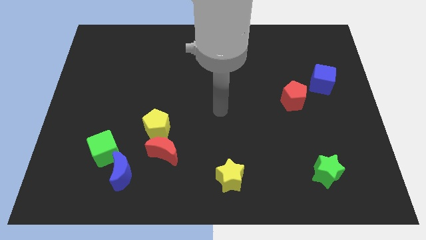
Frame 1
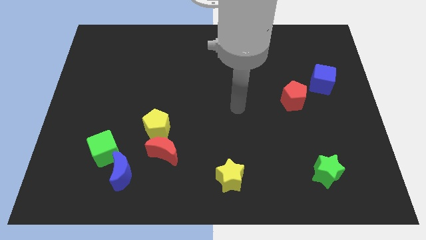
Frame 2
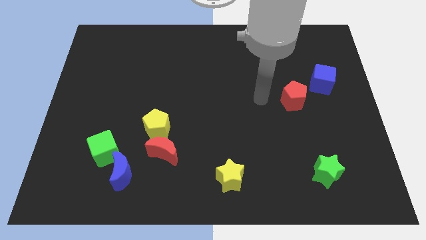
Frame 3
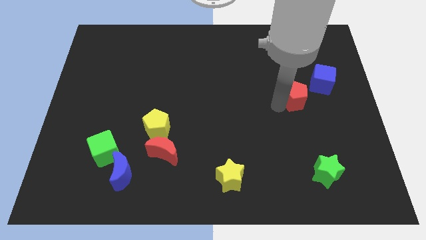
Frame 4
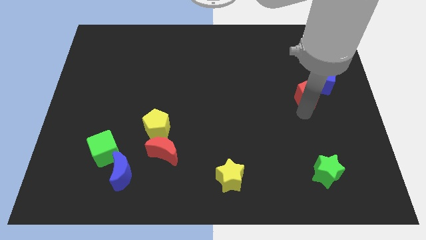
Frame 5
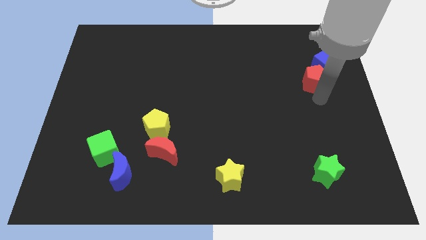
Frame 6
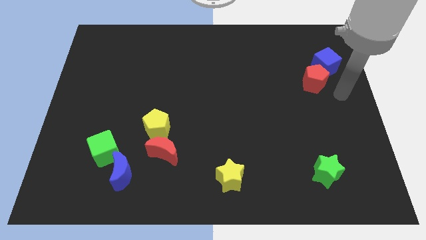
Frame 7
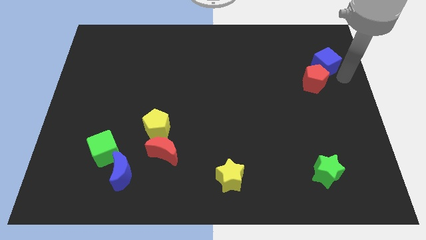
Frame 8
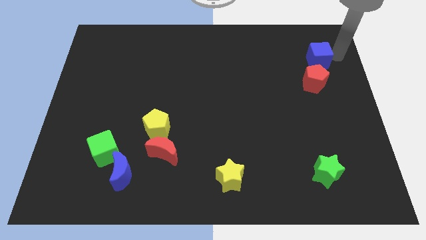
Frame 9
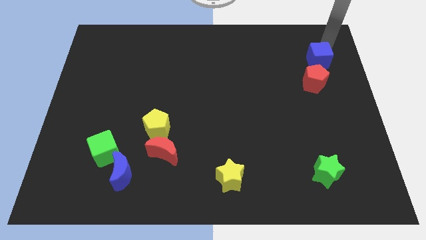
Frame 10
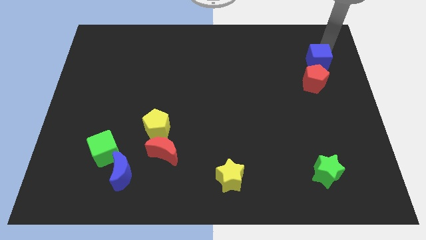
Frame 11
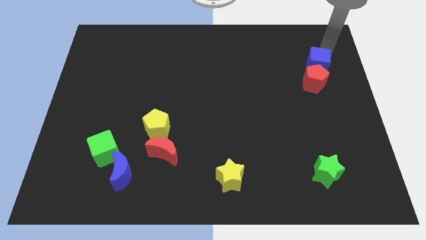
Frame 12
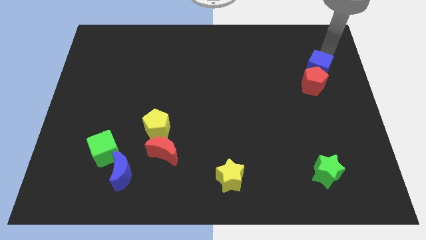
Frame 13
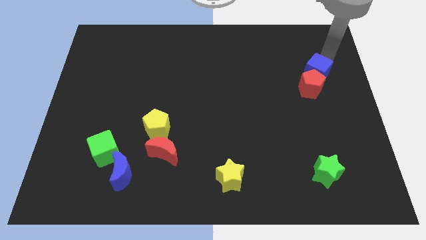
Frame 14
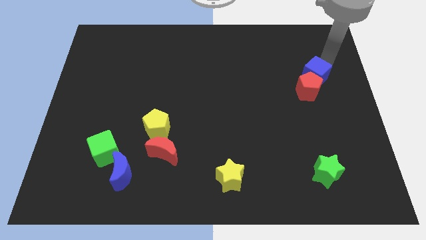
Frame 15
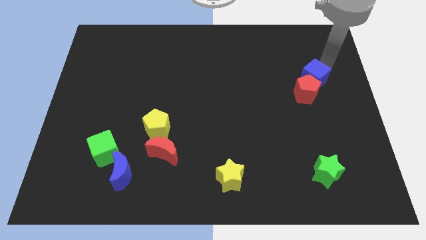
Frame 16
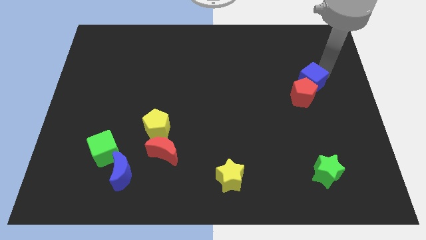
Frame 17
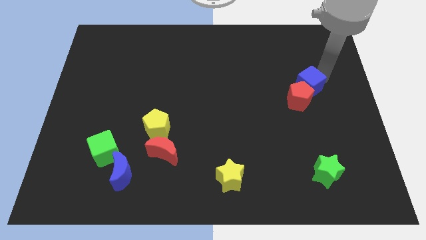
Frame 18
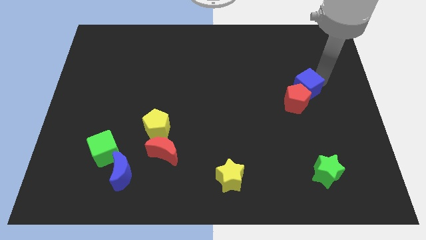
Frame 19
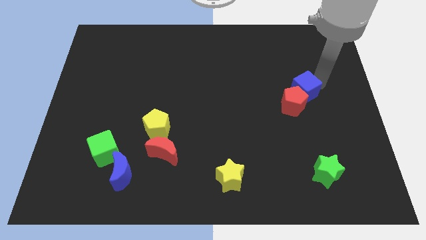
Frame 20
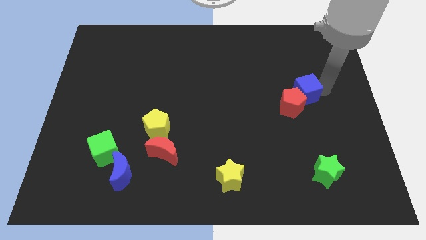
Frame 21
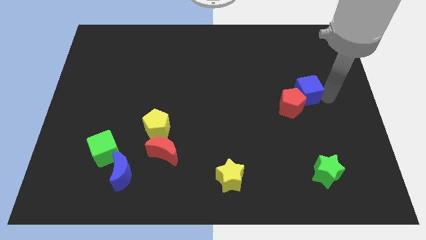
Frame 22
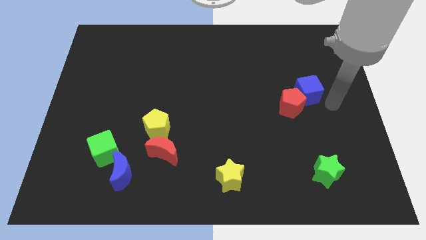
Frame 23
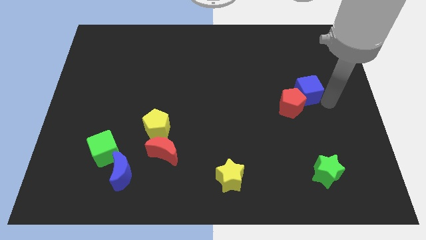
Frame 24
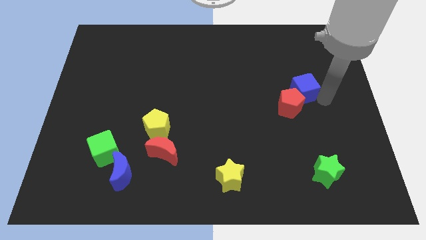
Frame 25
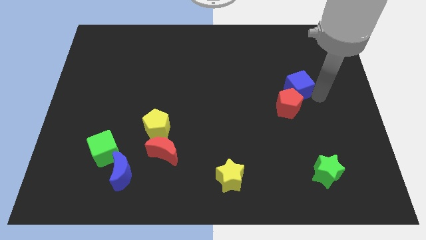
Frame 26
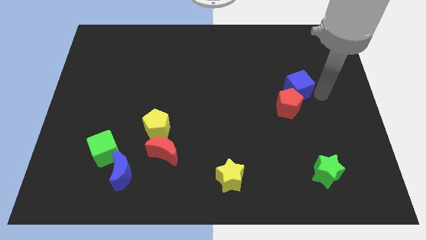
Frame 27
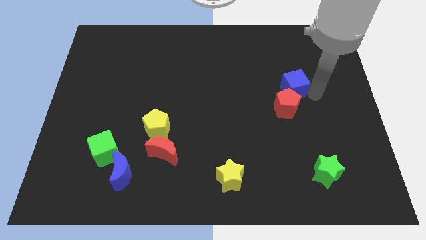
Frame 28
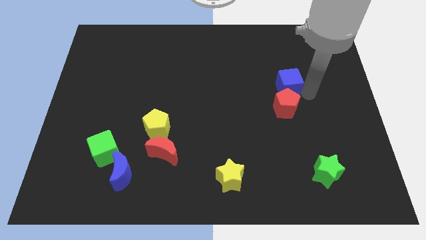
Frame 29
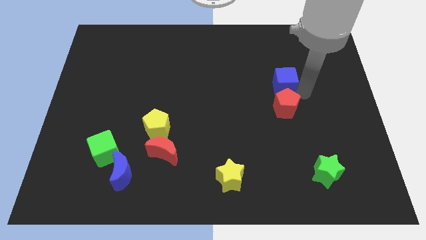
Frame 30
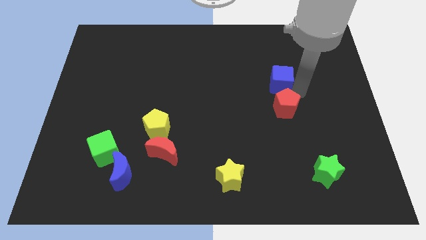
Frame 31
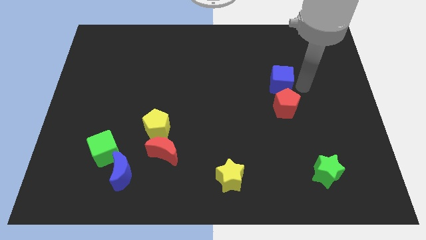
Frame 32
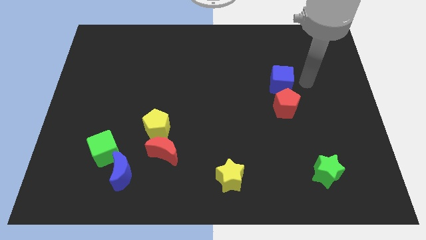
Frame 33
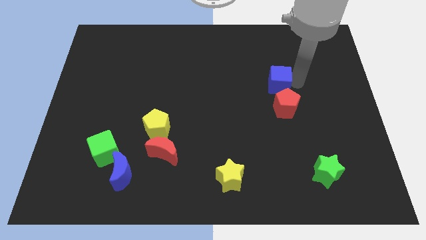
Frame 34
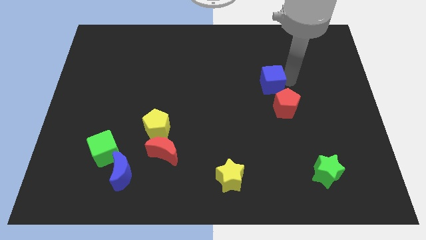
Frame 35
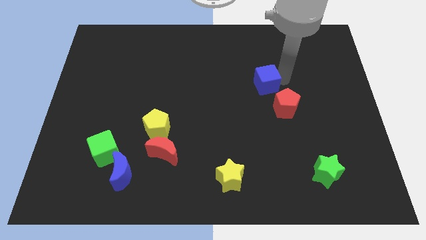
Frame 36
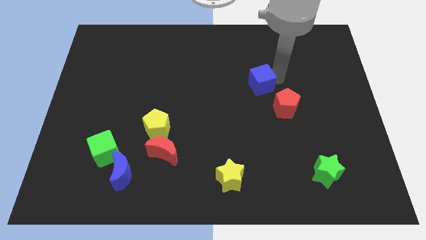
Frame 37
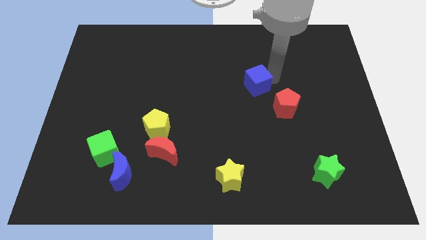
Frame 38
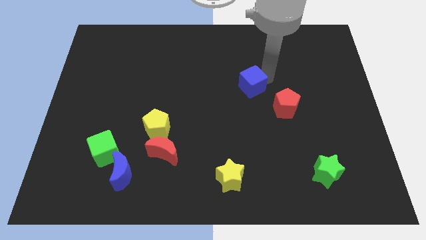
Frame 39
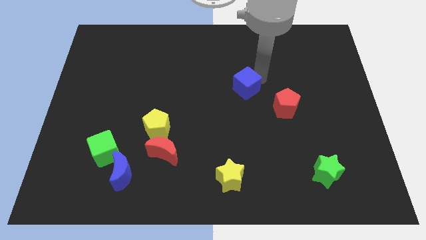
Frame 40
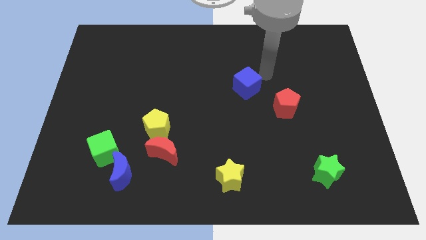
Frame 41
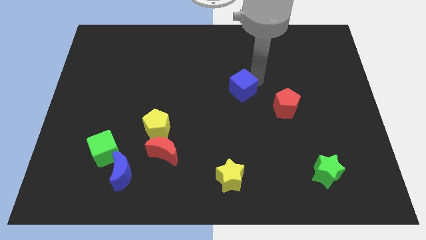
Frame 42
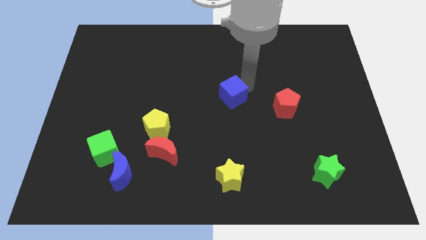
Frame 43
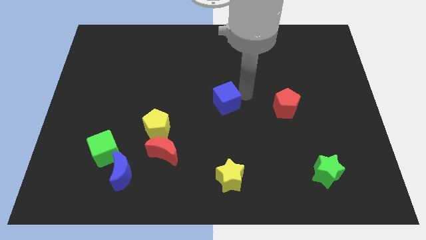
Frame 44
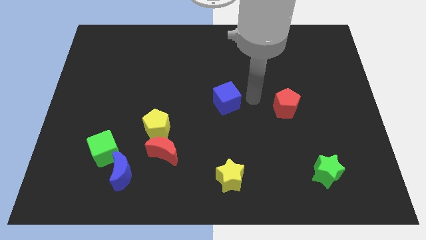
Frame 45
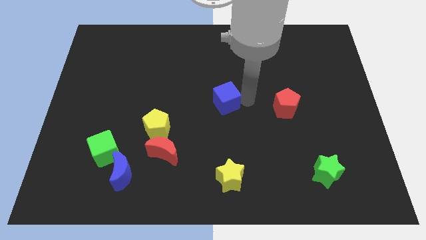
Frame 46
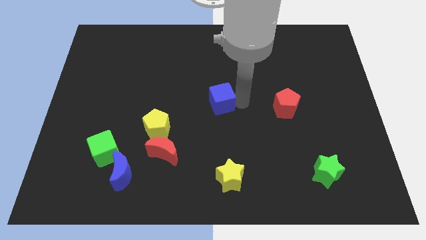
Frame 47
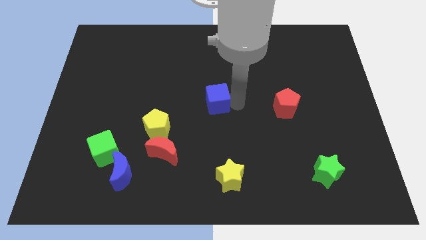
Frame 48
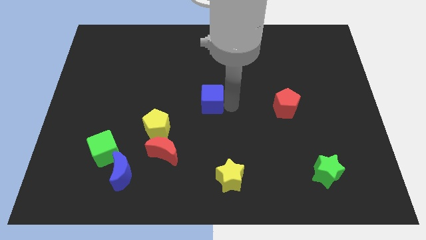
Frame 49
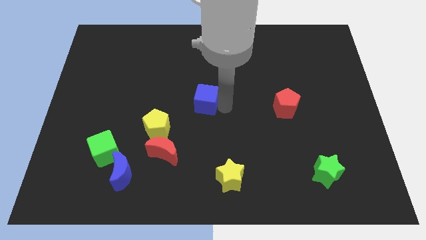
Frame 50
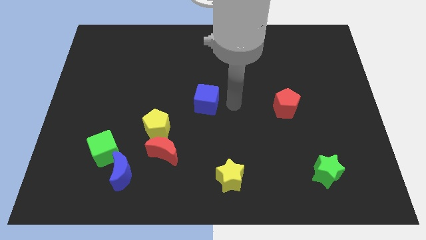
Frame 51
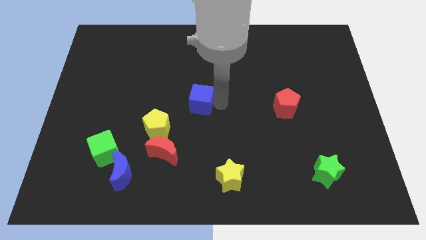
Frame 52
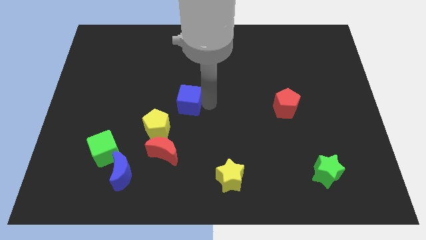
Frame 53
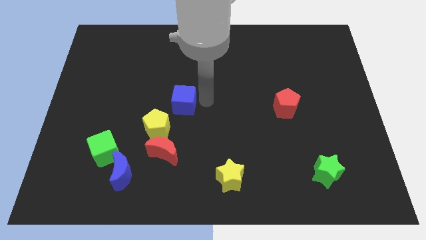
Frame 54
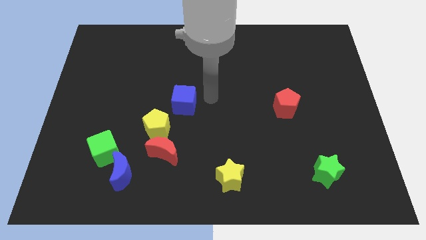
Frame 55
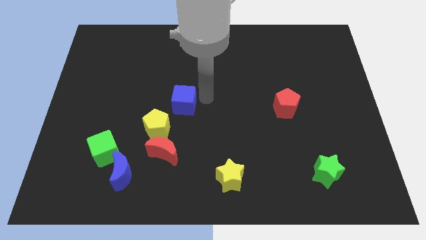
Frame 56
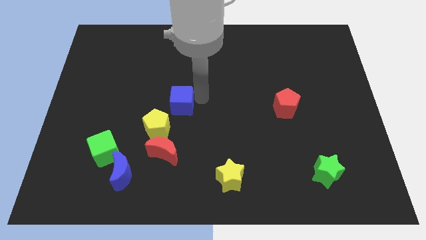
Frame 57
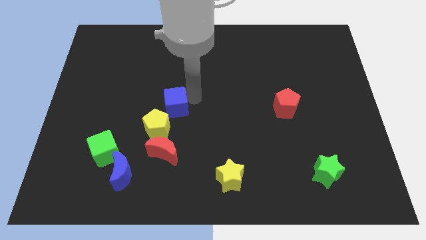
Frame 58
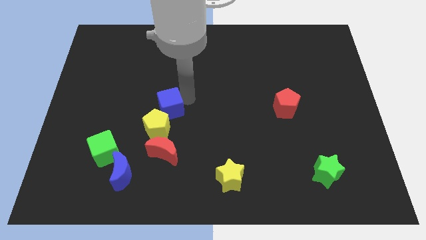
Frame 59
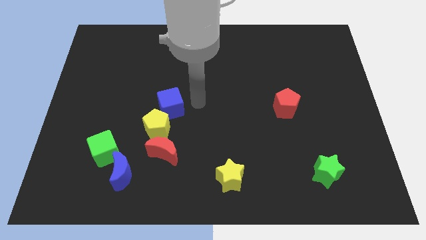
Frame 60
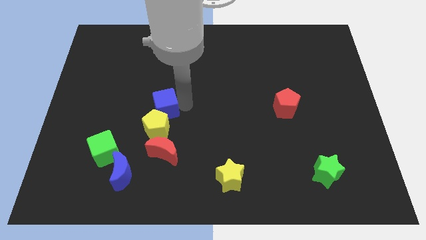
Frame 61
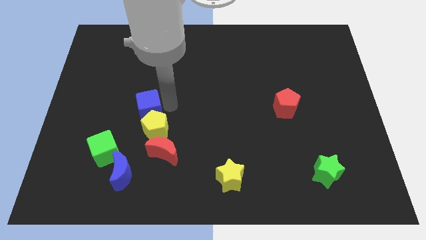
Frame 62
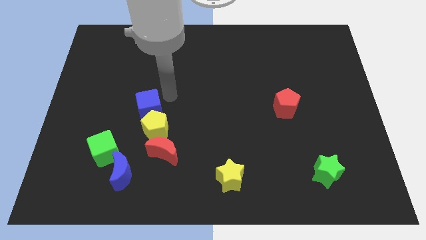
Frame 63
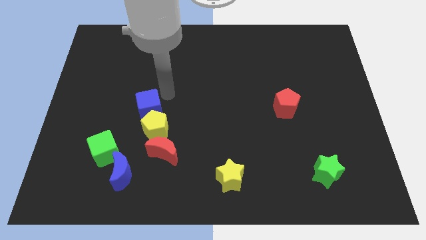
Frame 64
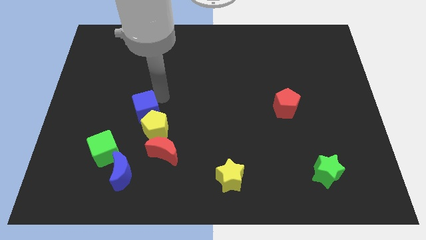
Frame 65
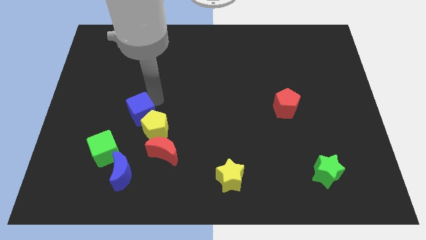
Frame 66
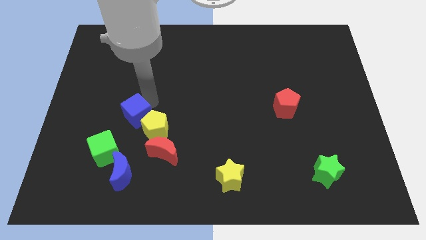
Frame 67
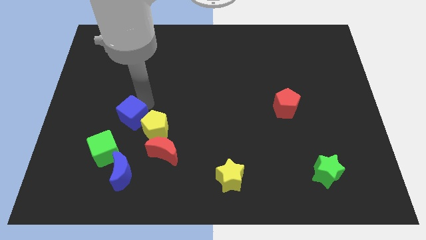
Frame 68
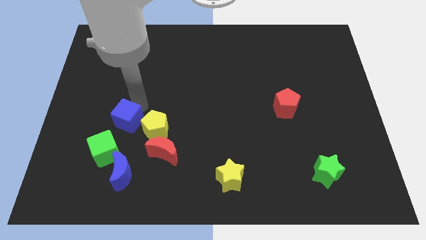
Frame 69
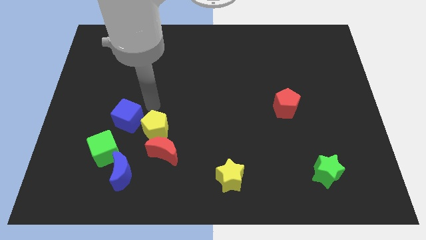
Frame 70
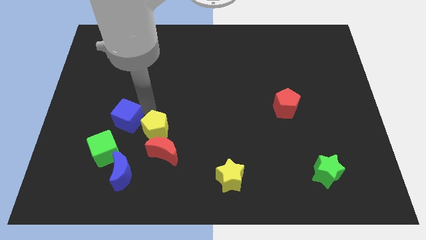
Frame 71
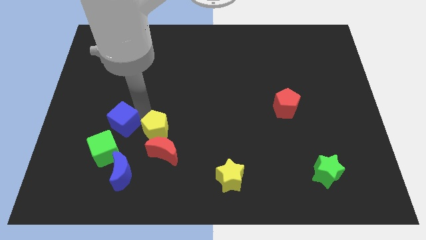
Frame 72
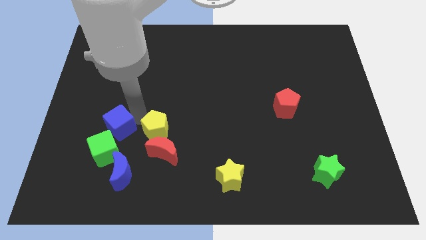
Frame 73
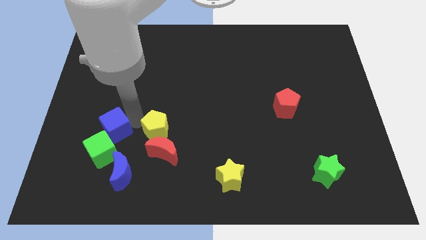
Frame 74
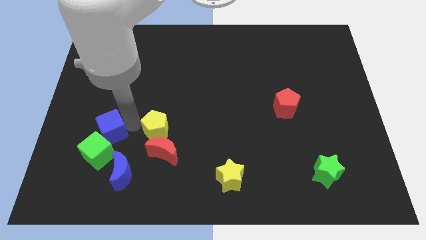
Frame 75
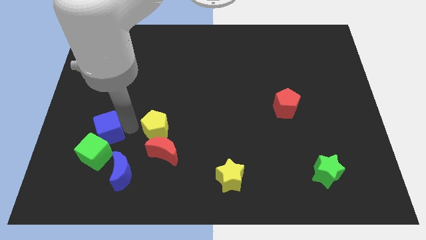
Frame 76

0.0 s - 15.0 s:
push the blue cube to the top left of the blue moon
